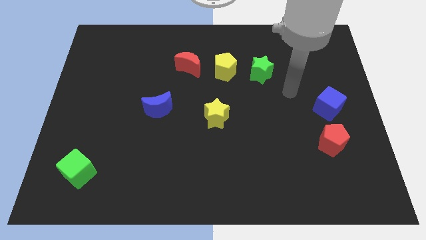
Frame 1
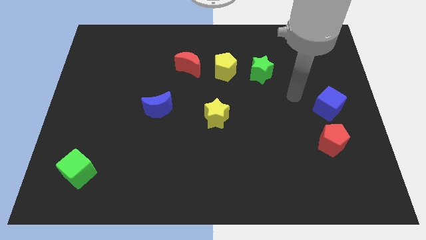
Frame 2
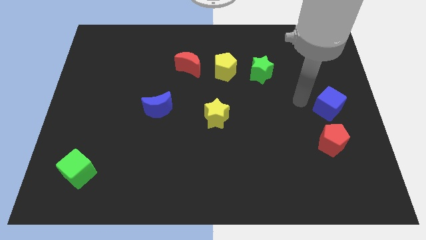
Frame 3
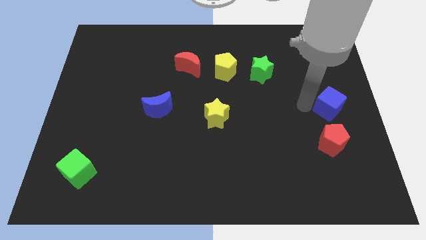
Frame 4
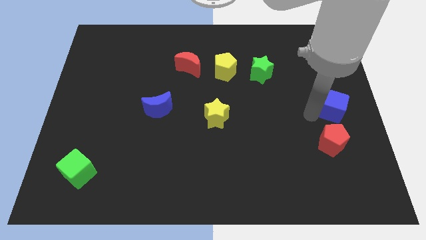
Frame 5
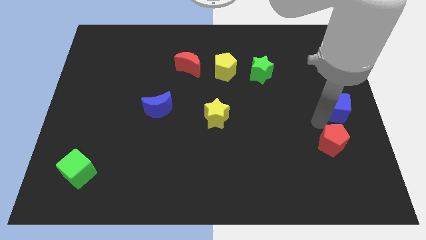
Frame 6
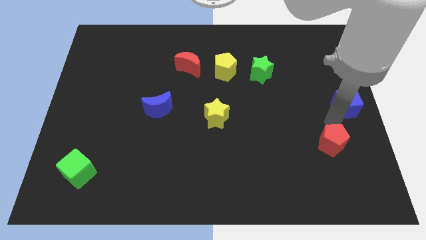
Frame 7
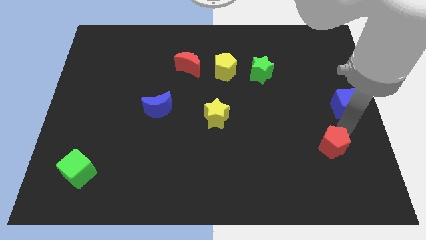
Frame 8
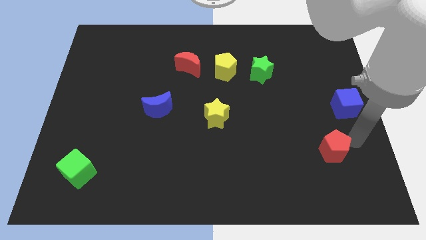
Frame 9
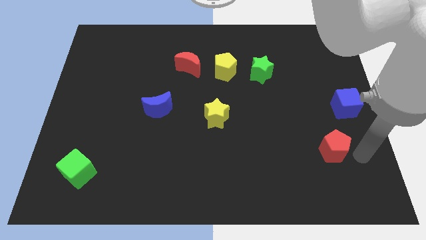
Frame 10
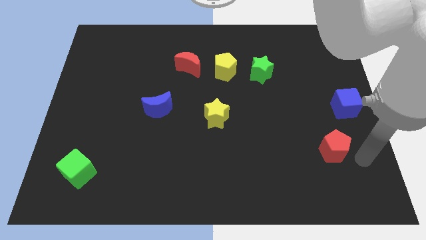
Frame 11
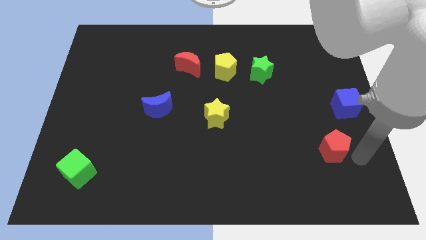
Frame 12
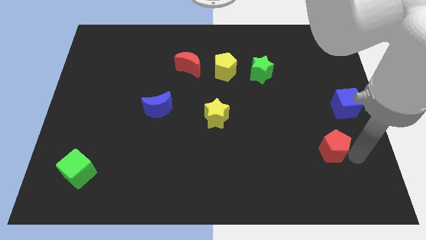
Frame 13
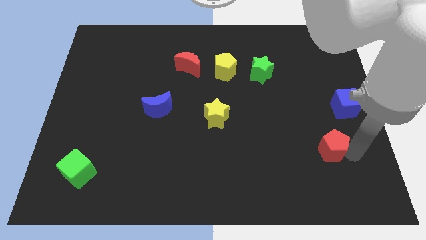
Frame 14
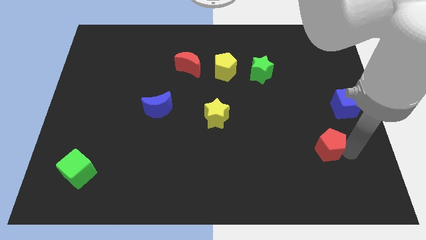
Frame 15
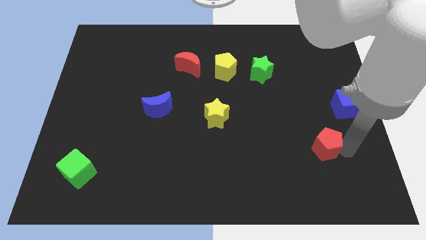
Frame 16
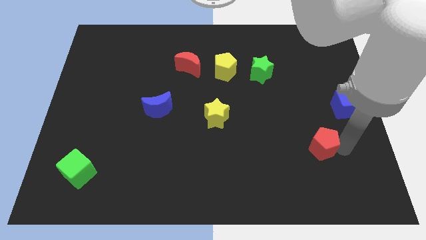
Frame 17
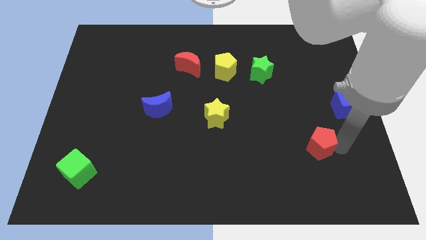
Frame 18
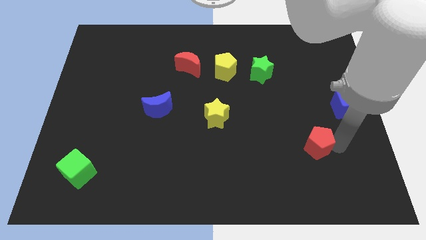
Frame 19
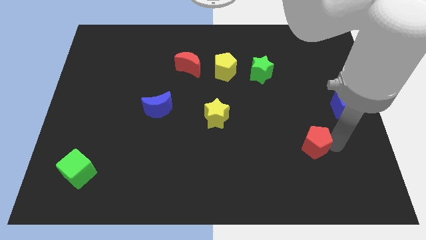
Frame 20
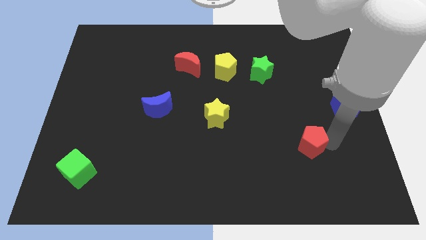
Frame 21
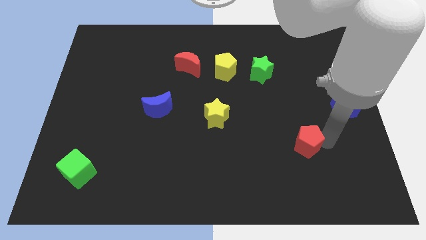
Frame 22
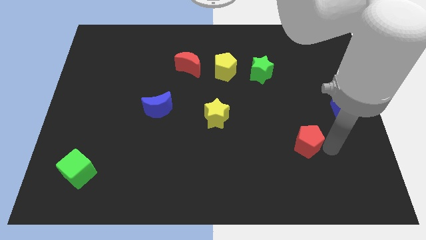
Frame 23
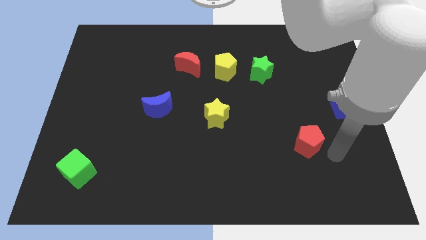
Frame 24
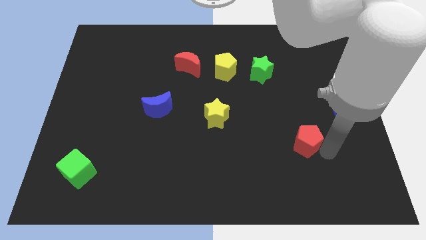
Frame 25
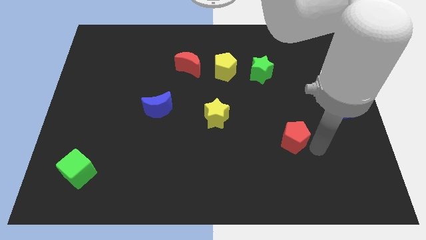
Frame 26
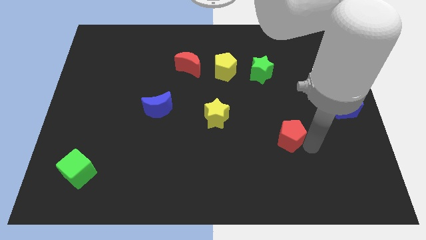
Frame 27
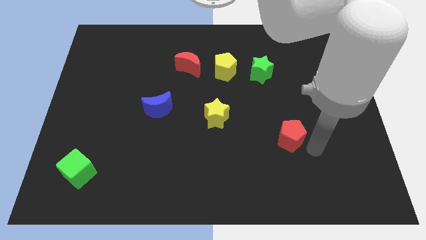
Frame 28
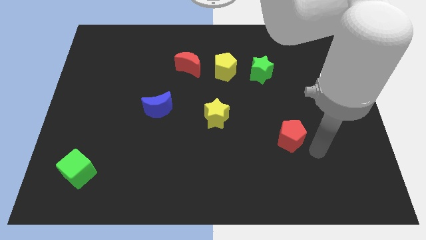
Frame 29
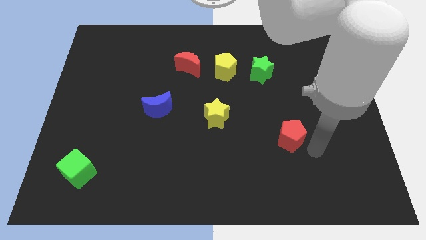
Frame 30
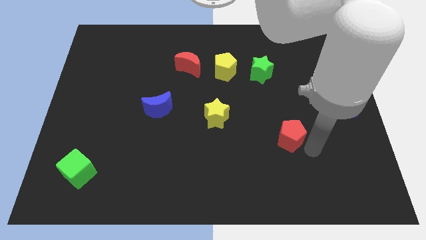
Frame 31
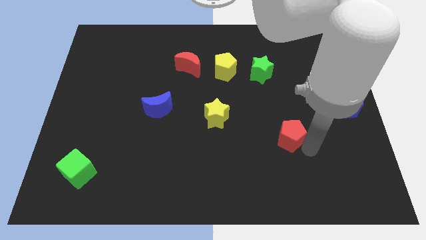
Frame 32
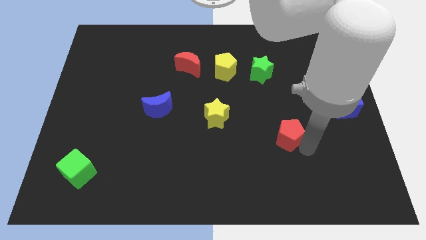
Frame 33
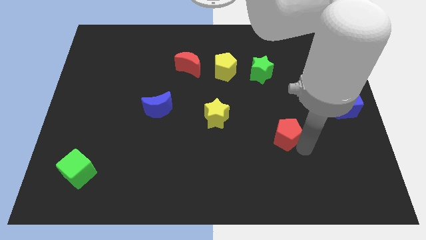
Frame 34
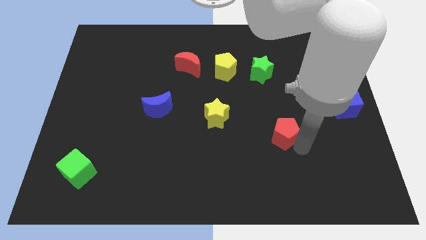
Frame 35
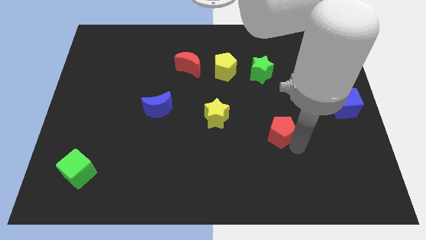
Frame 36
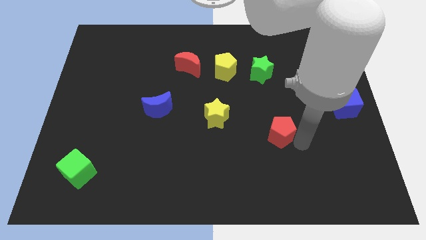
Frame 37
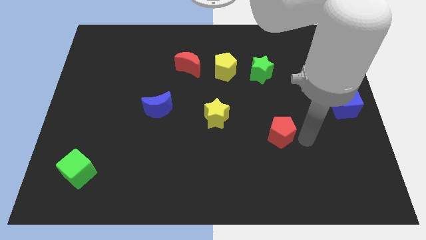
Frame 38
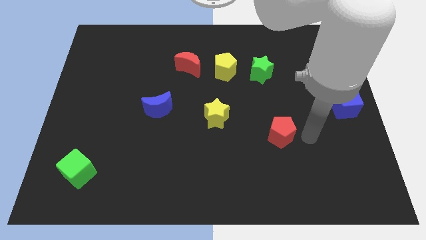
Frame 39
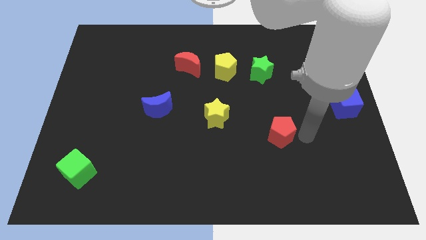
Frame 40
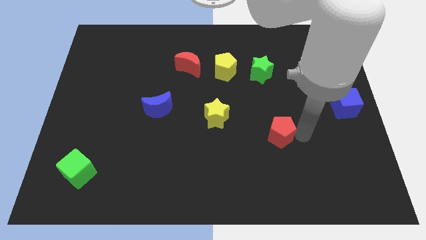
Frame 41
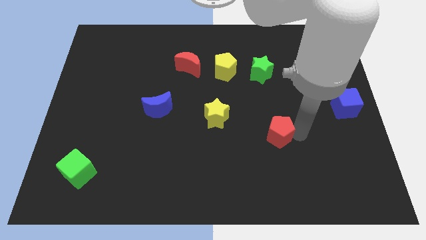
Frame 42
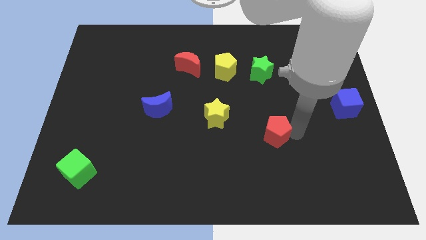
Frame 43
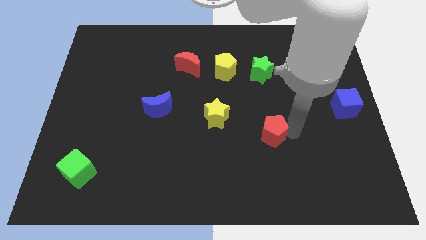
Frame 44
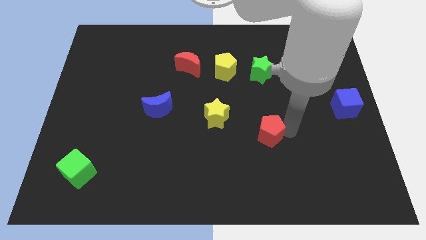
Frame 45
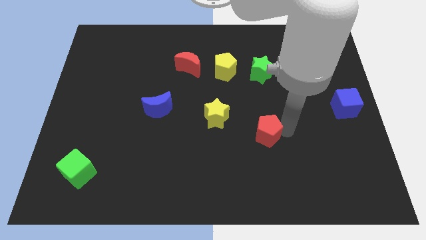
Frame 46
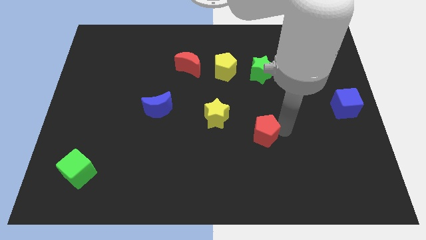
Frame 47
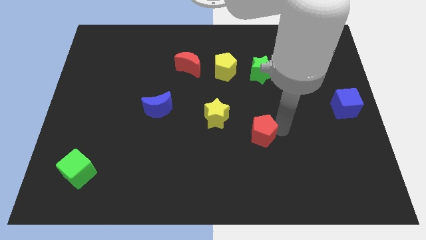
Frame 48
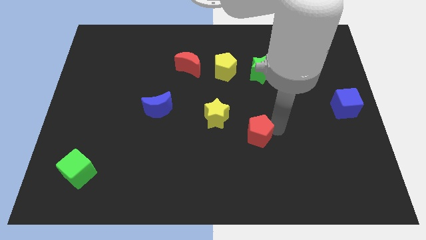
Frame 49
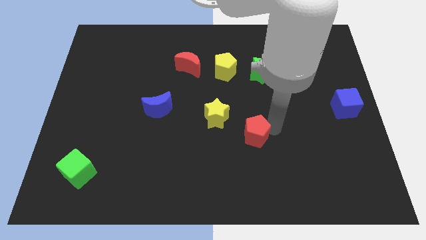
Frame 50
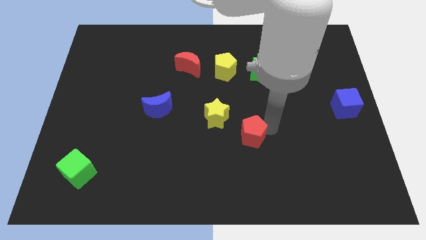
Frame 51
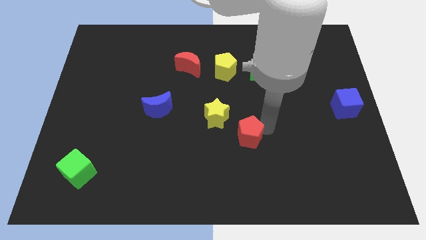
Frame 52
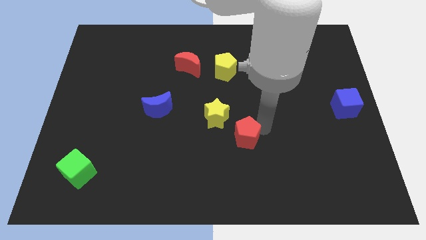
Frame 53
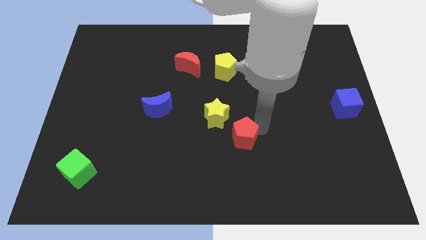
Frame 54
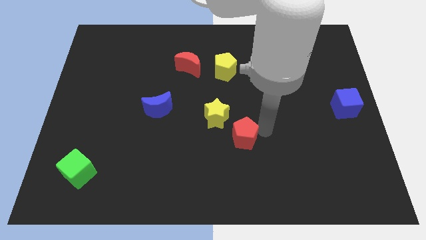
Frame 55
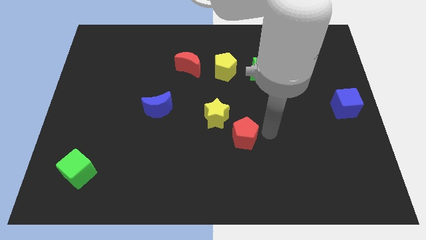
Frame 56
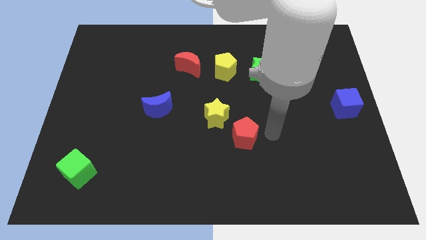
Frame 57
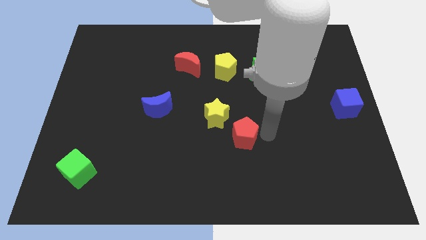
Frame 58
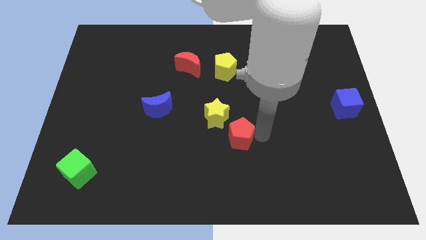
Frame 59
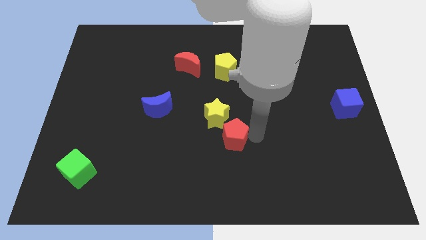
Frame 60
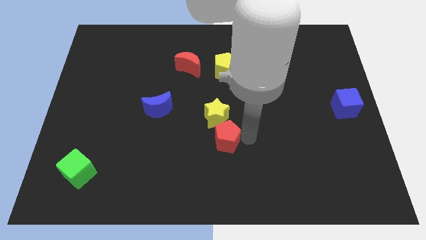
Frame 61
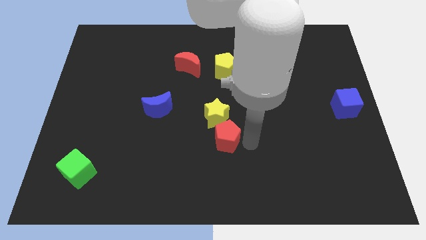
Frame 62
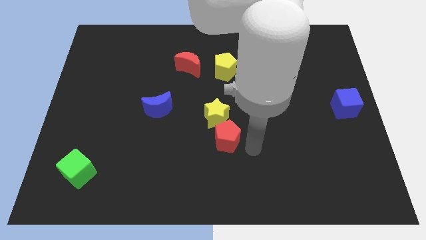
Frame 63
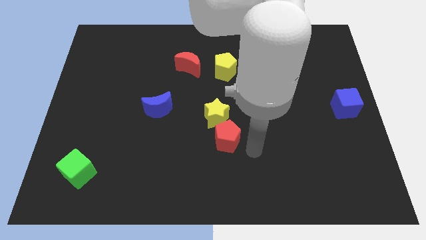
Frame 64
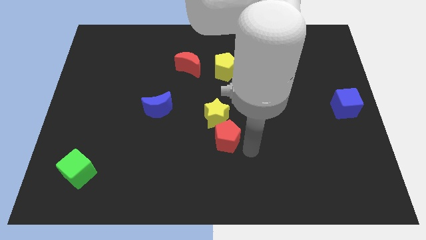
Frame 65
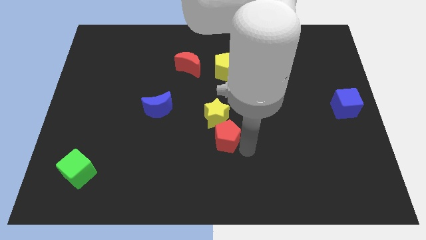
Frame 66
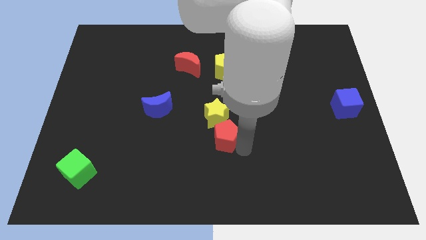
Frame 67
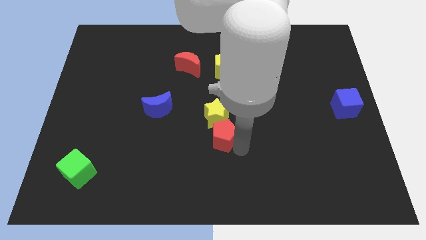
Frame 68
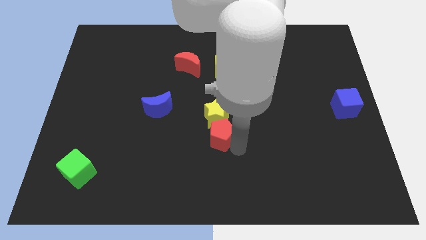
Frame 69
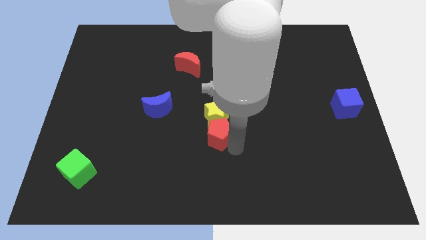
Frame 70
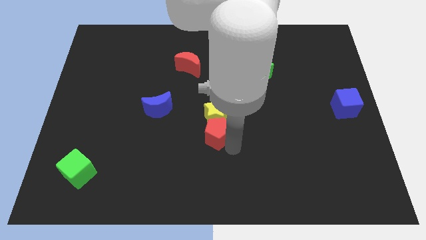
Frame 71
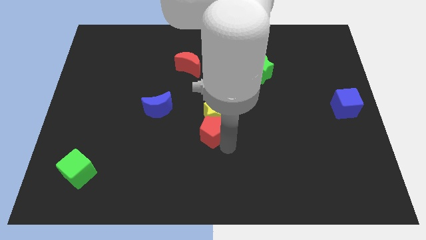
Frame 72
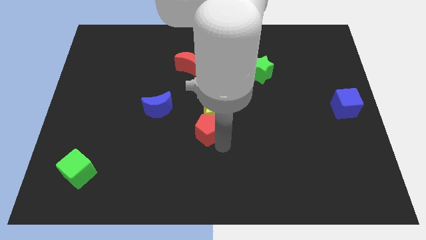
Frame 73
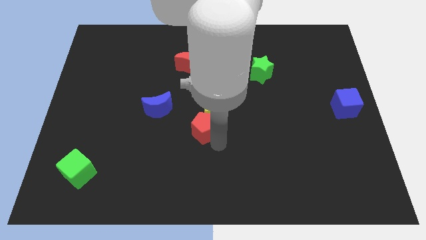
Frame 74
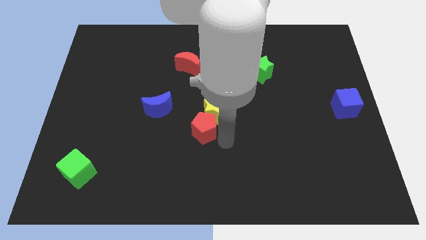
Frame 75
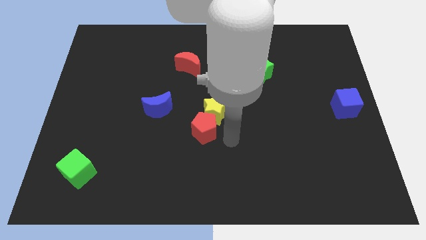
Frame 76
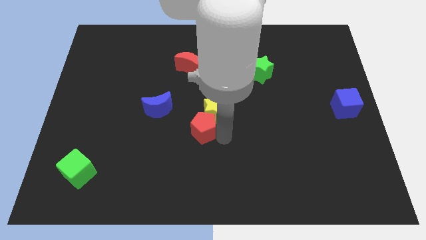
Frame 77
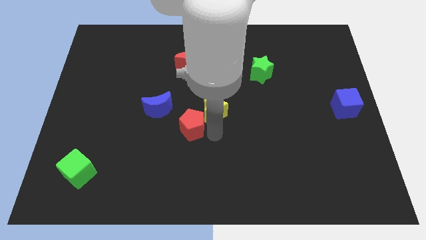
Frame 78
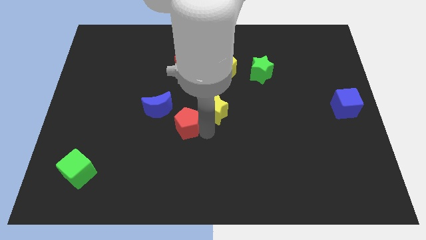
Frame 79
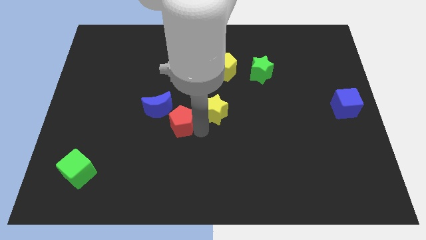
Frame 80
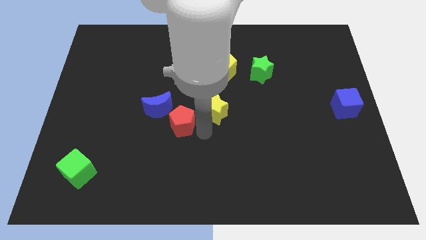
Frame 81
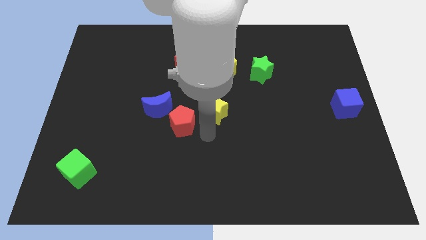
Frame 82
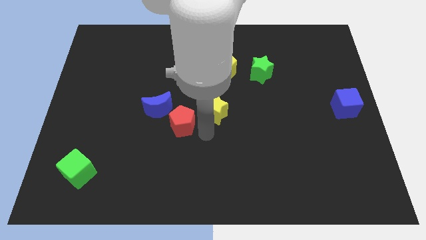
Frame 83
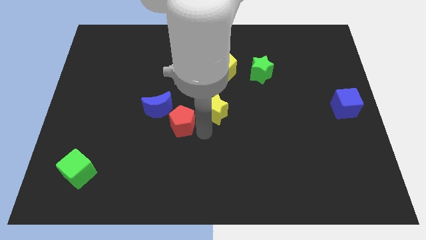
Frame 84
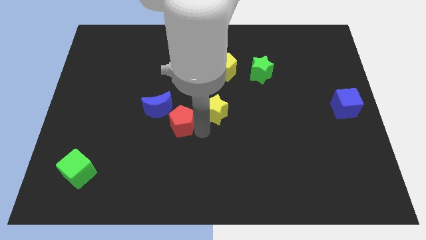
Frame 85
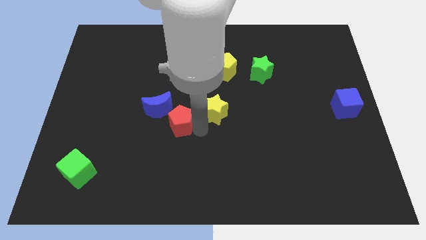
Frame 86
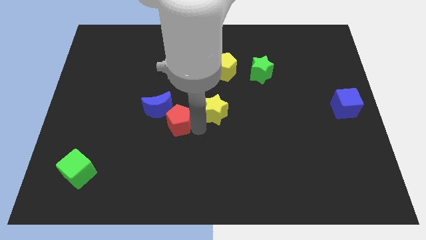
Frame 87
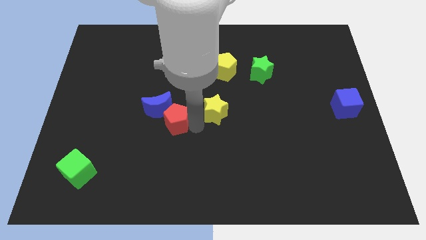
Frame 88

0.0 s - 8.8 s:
slide the red pentagon close to the blue moon
